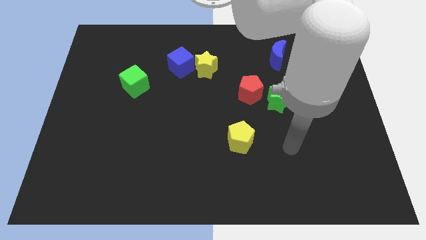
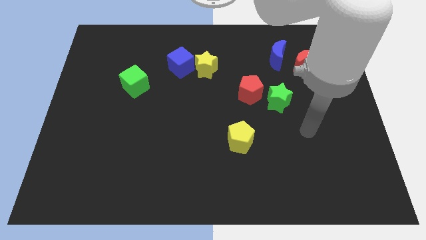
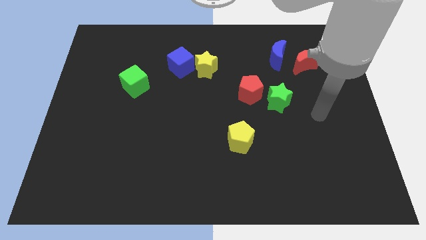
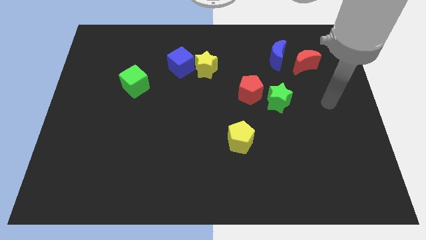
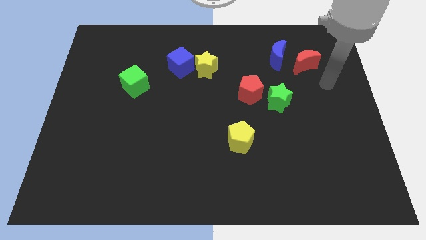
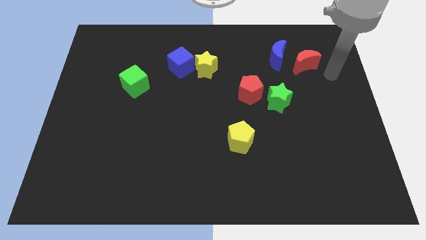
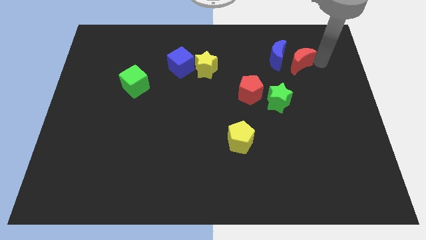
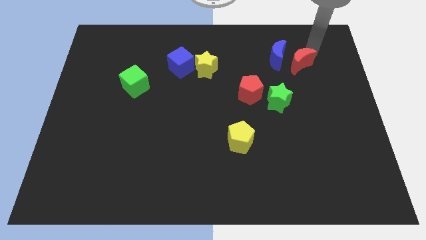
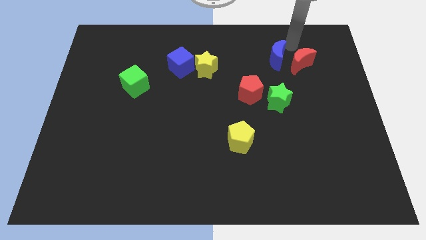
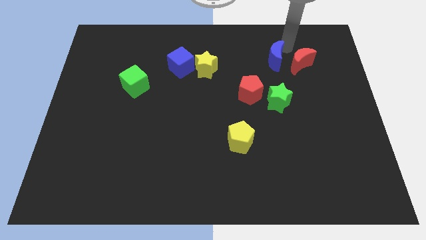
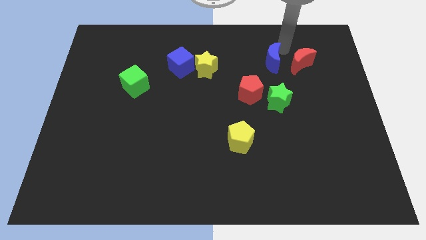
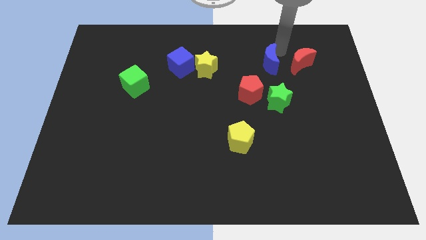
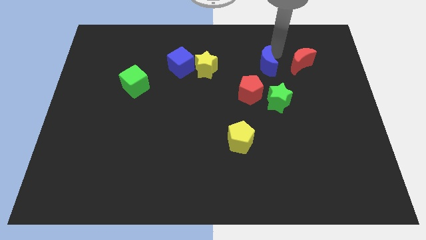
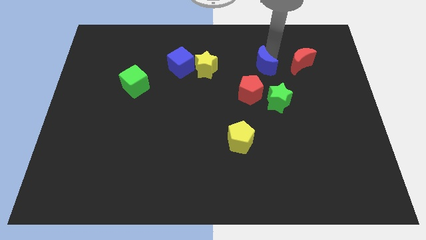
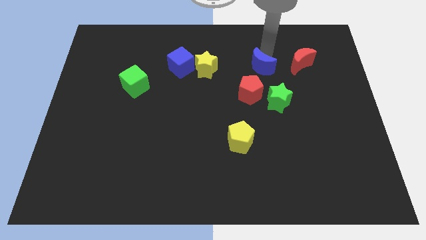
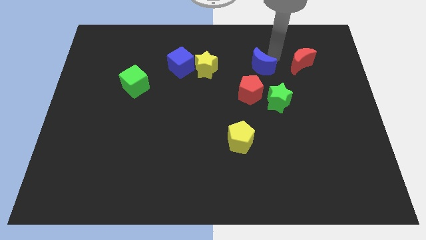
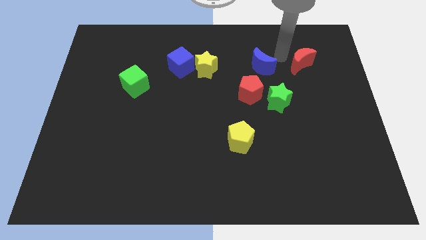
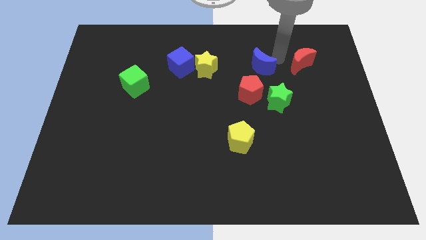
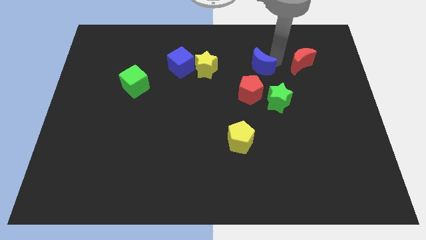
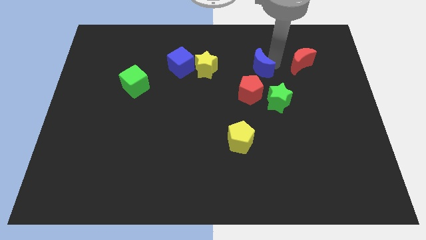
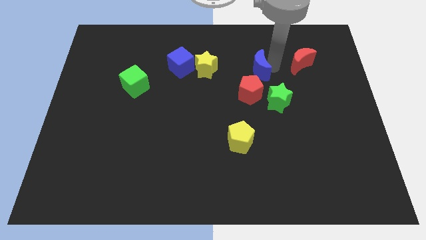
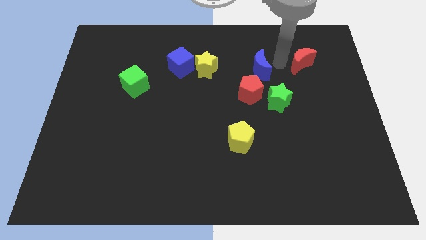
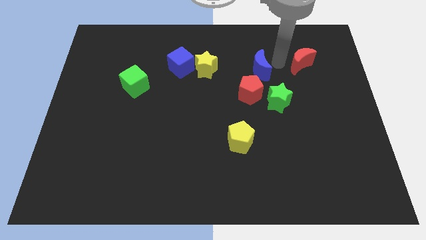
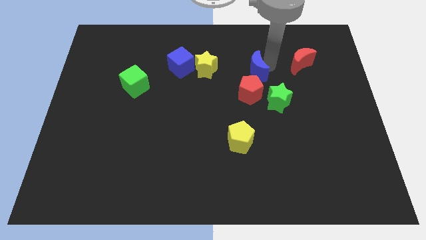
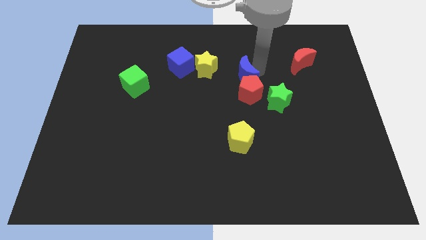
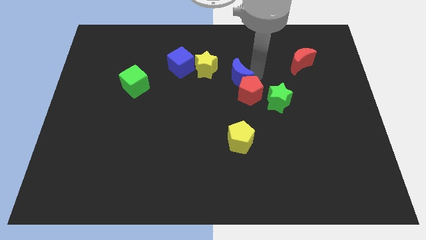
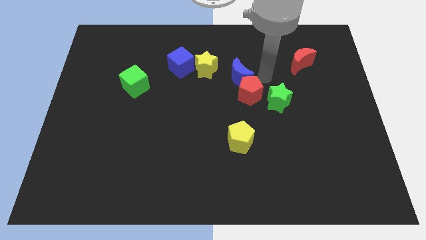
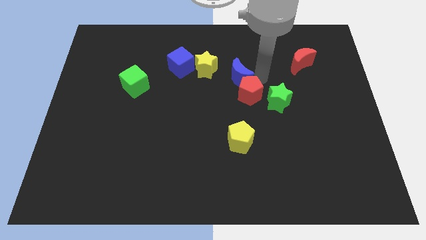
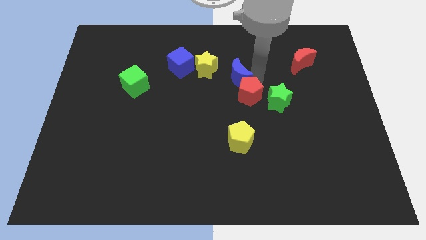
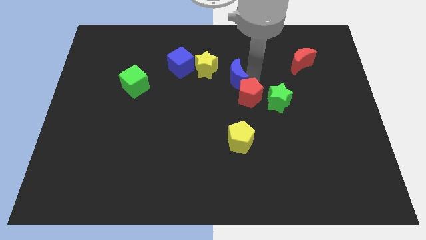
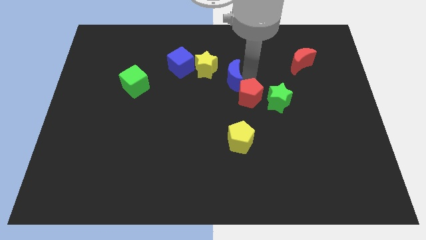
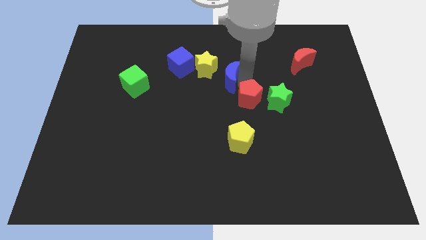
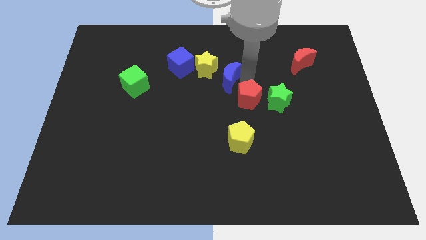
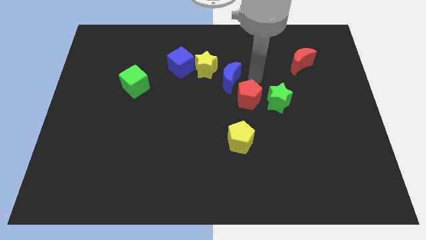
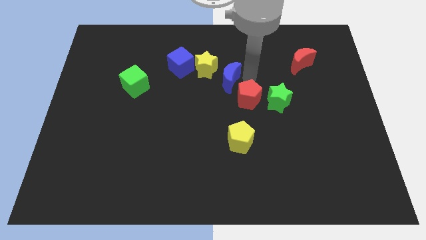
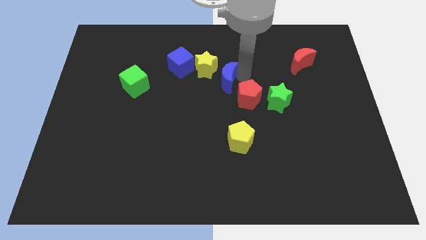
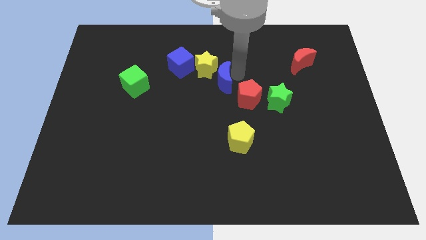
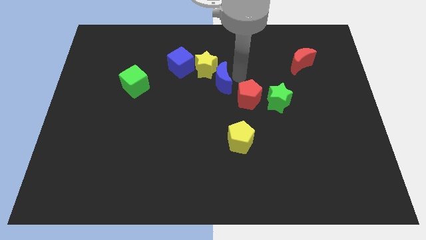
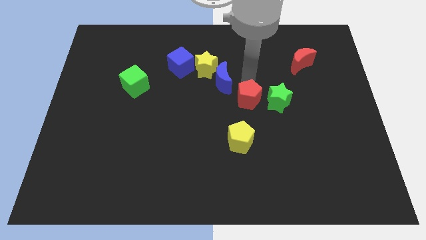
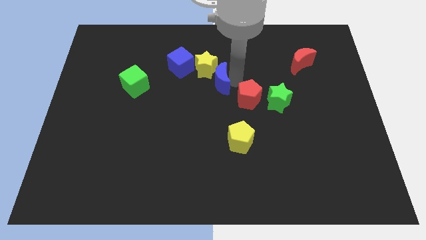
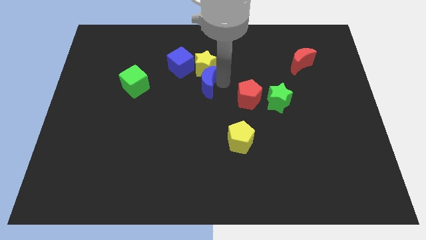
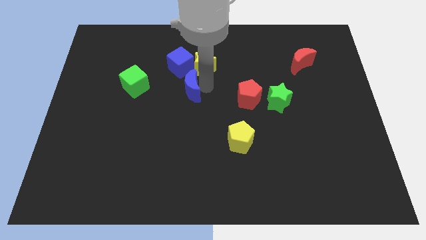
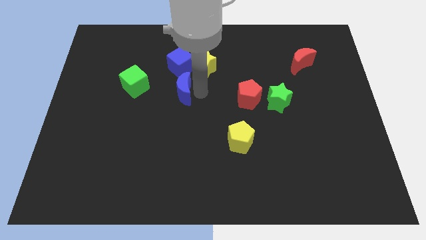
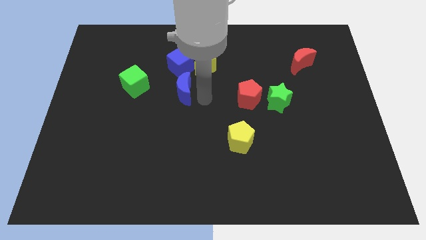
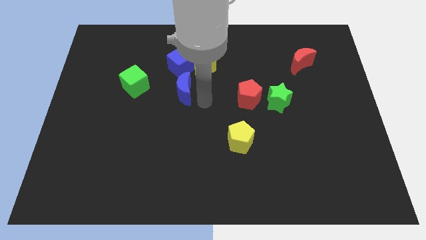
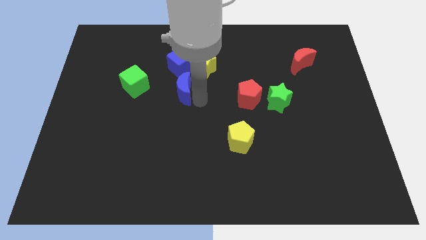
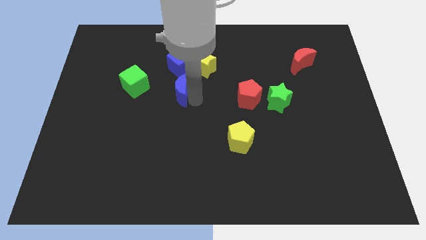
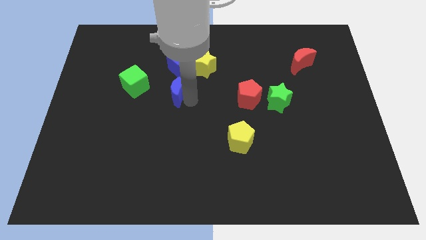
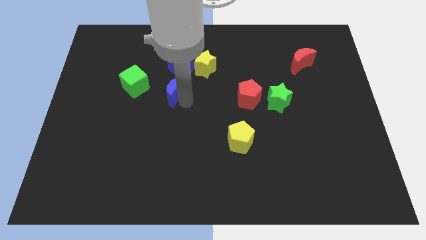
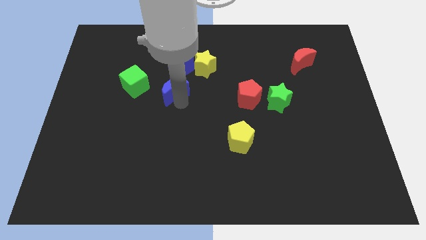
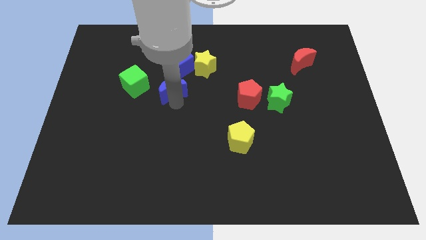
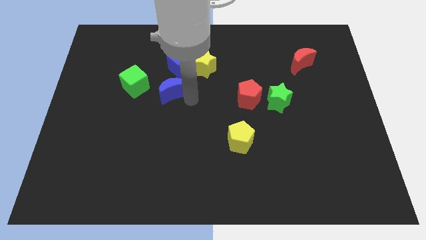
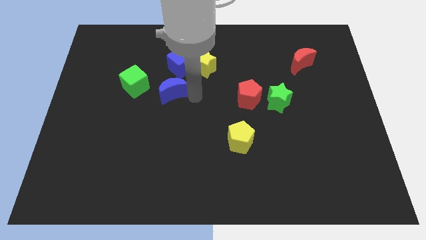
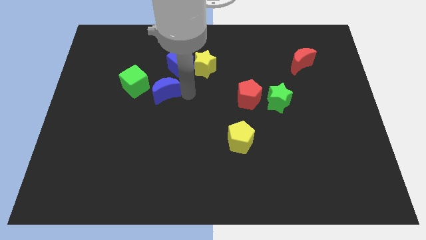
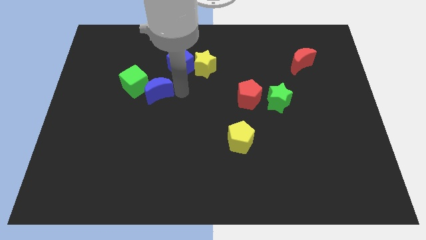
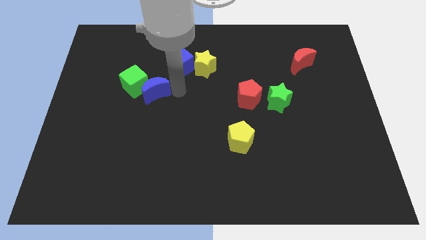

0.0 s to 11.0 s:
move the blue moon towards the green cube

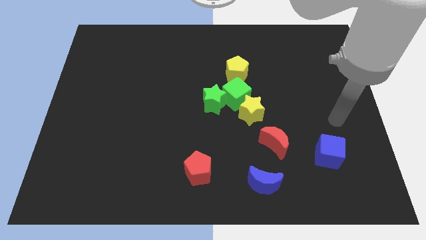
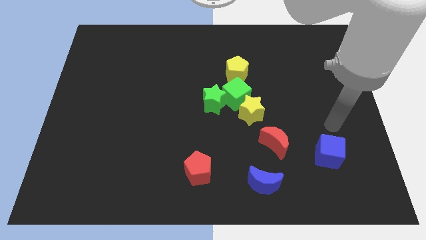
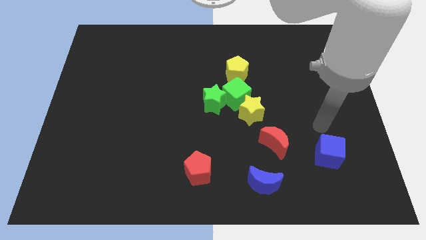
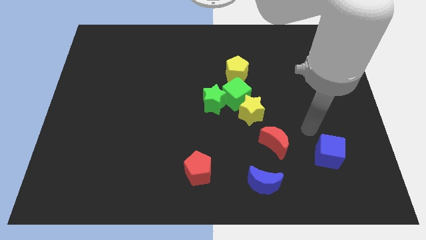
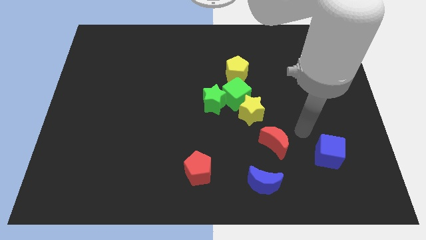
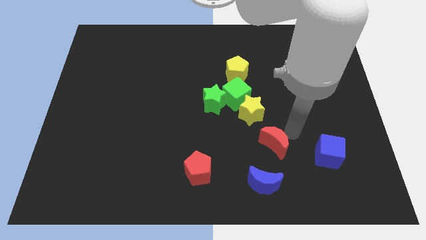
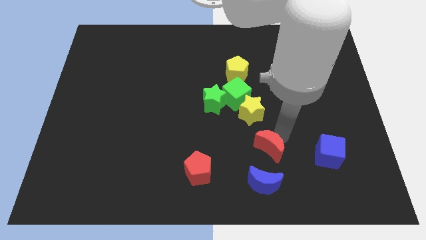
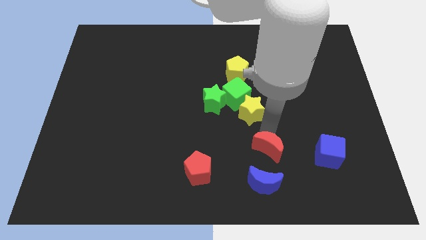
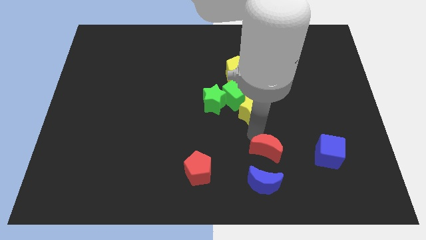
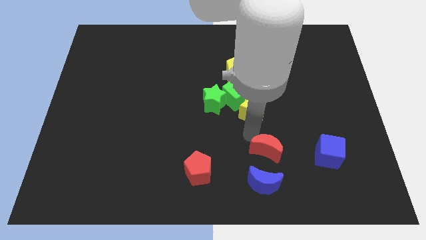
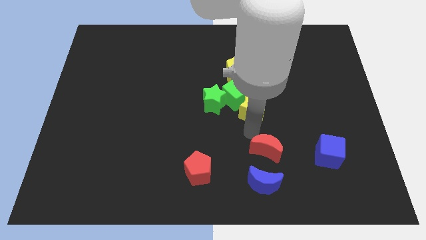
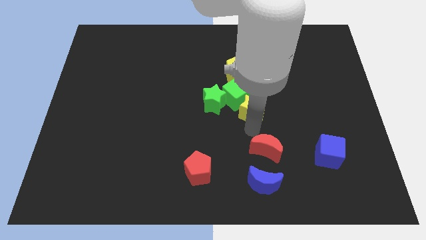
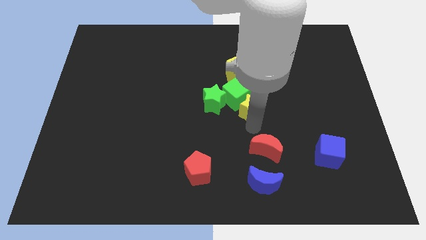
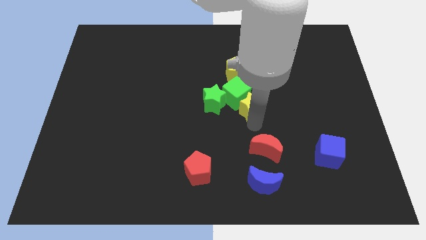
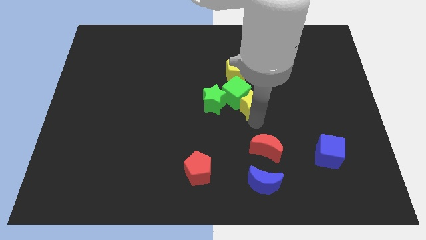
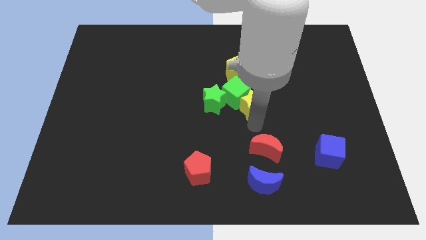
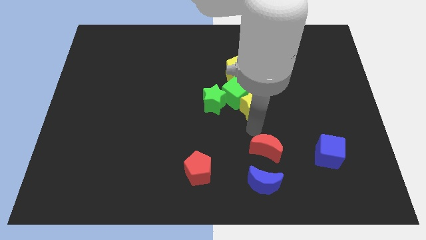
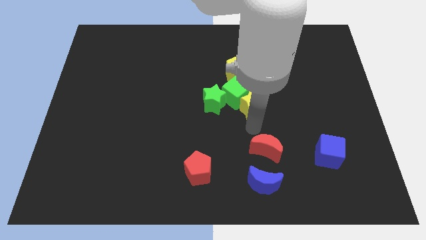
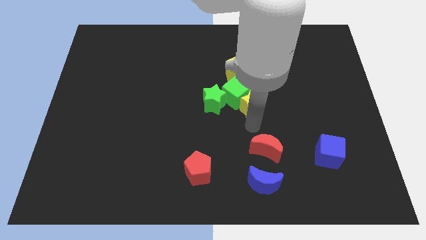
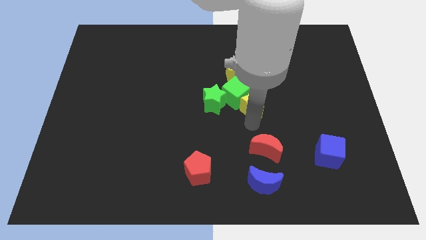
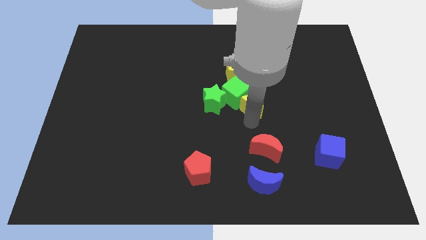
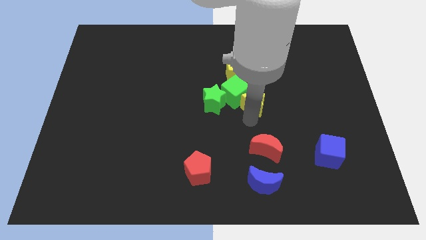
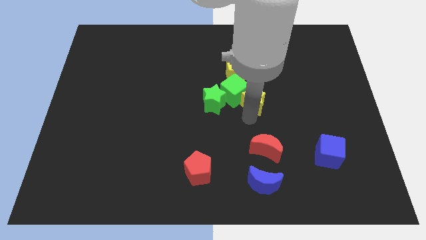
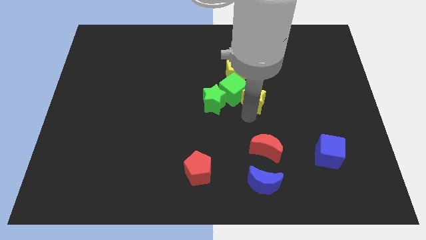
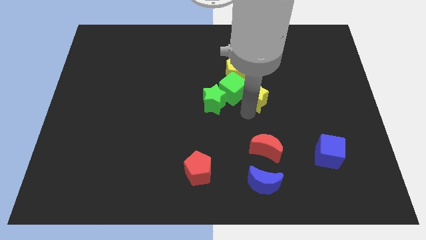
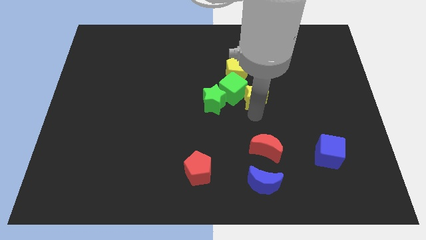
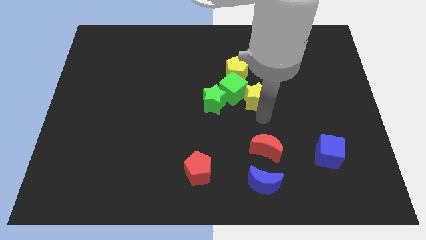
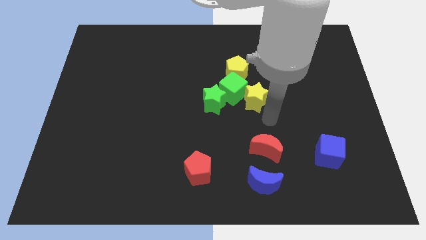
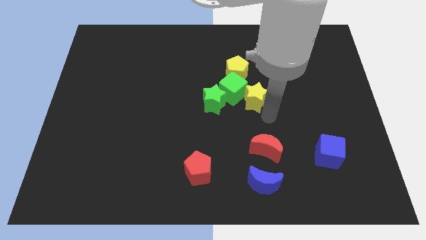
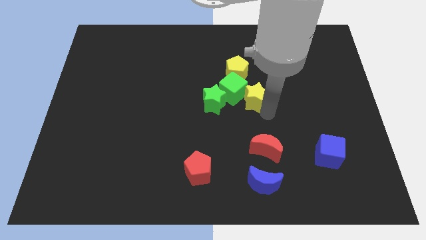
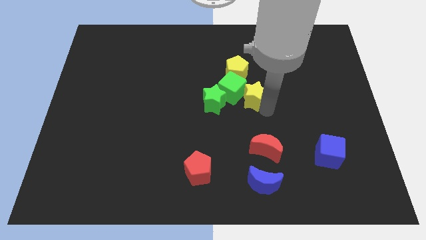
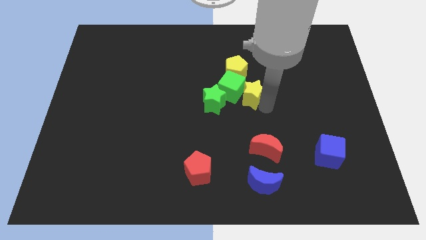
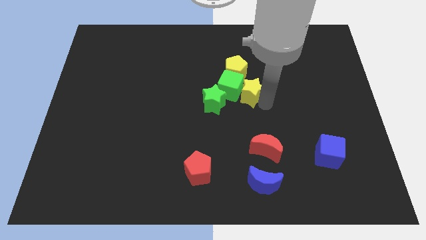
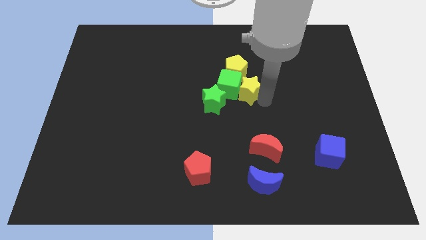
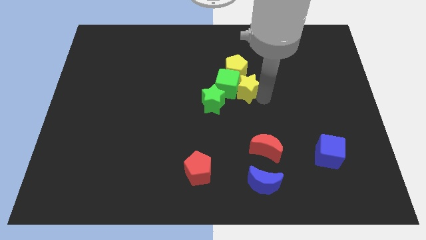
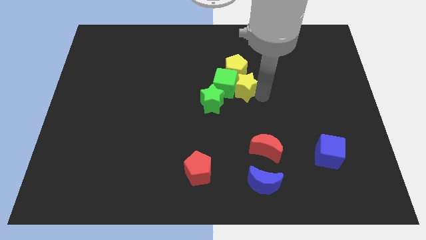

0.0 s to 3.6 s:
slide the yellow star towards the yellow pentagon
